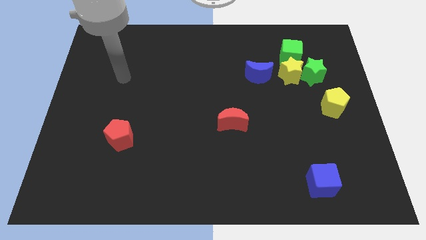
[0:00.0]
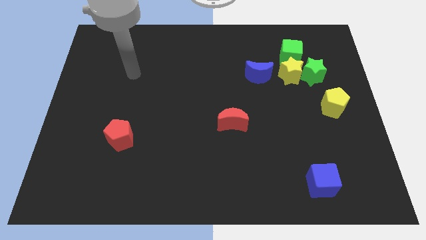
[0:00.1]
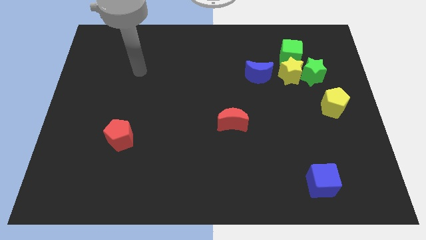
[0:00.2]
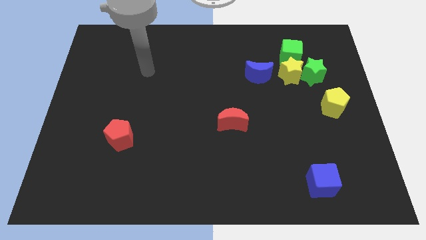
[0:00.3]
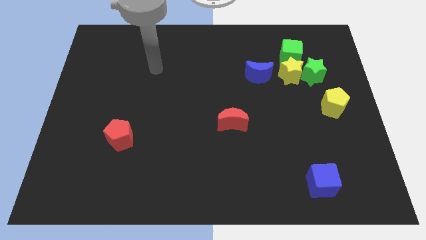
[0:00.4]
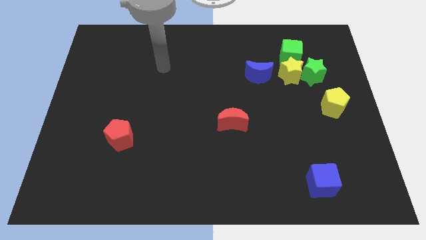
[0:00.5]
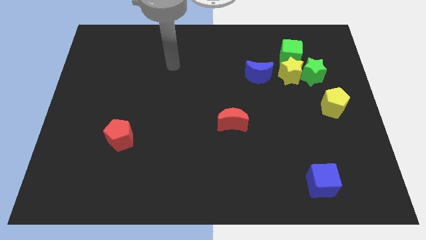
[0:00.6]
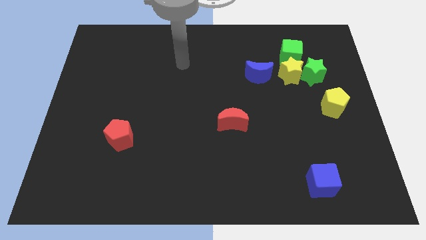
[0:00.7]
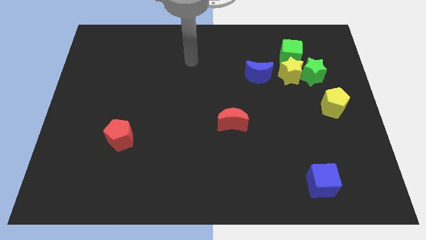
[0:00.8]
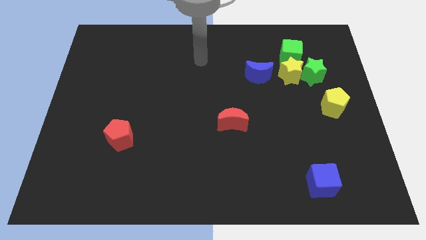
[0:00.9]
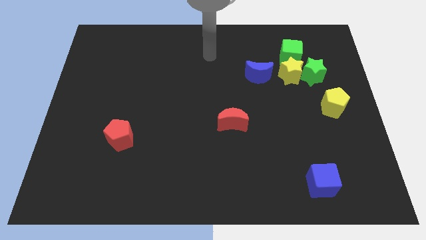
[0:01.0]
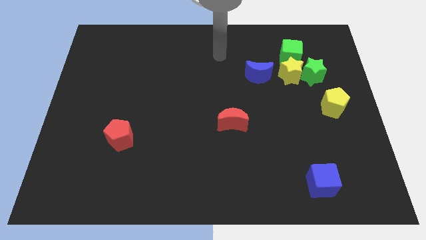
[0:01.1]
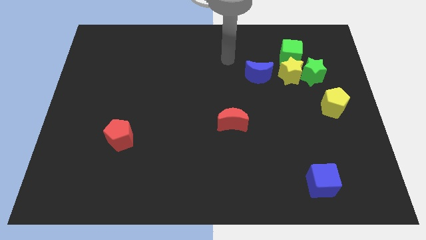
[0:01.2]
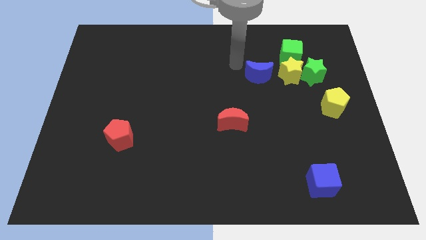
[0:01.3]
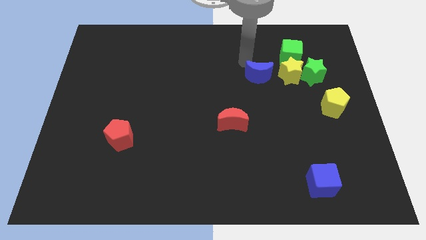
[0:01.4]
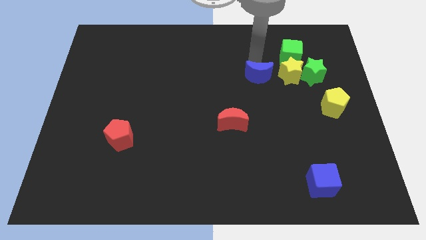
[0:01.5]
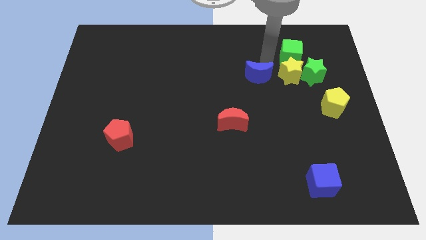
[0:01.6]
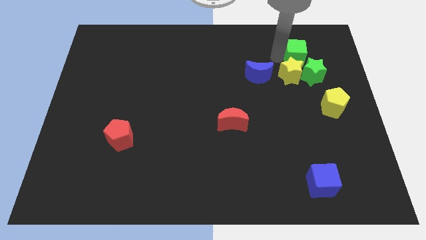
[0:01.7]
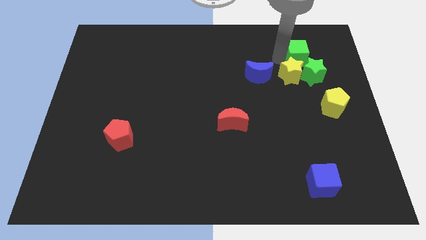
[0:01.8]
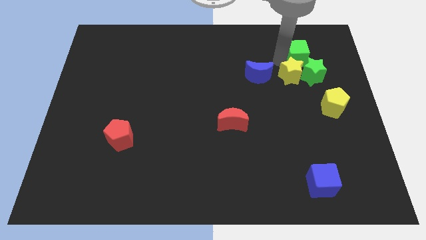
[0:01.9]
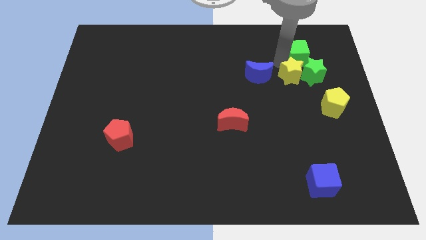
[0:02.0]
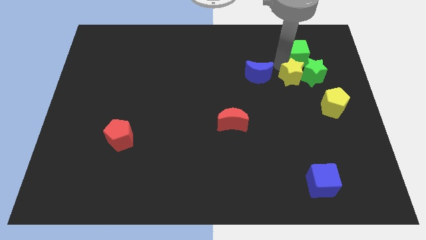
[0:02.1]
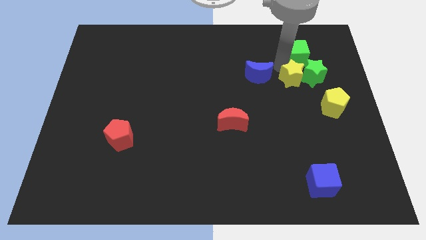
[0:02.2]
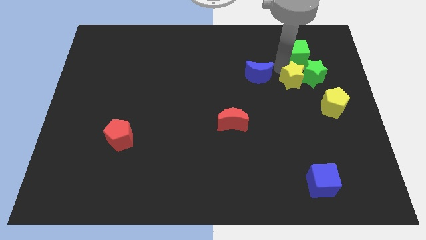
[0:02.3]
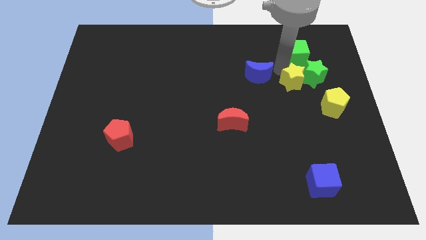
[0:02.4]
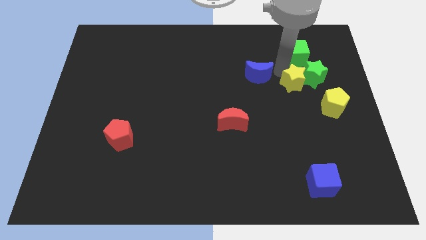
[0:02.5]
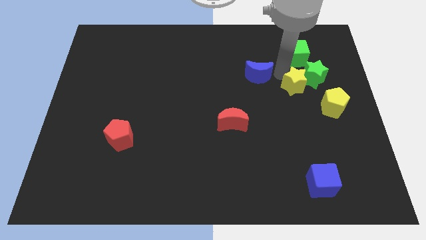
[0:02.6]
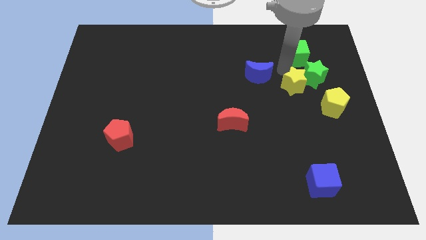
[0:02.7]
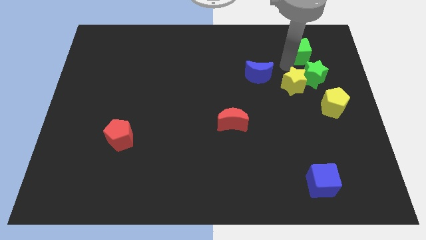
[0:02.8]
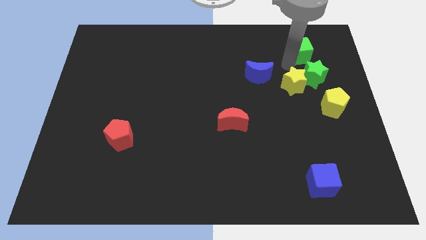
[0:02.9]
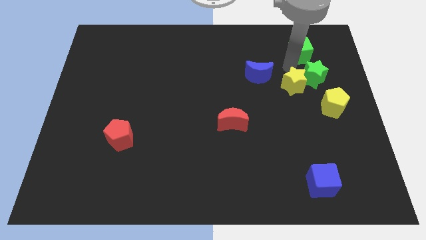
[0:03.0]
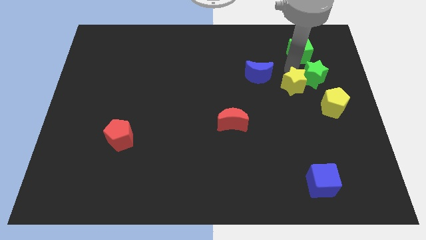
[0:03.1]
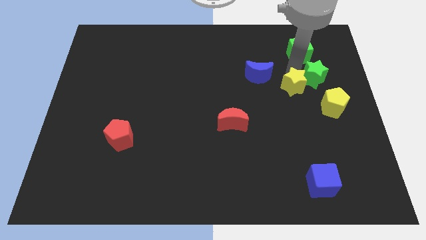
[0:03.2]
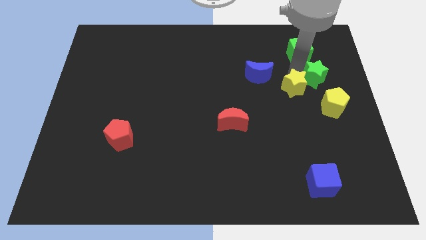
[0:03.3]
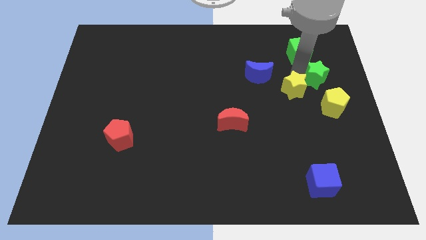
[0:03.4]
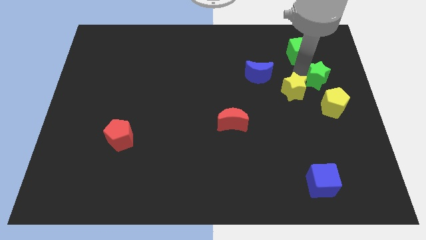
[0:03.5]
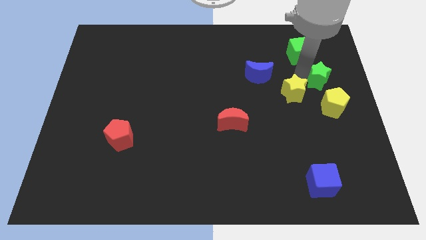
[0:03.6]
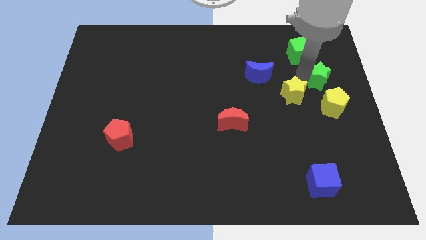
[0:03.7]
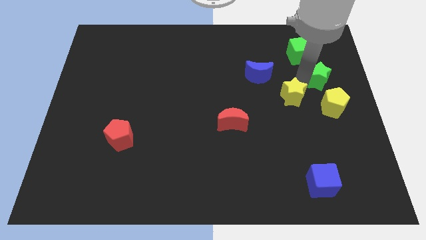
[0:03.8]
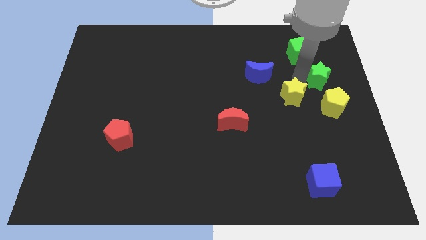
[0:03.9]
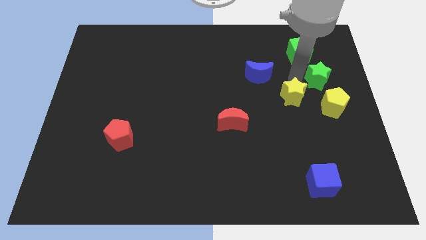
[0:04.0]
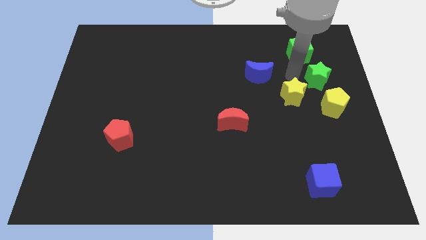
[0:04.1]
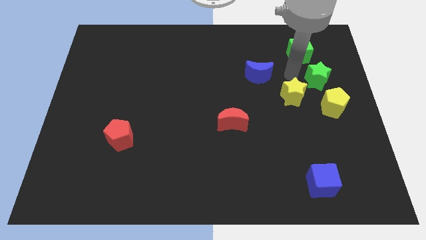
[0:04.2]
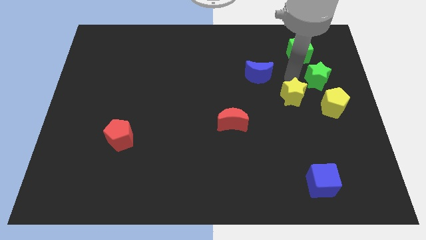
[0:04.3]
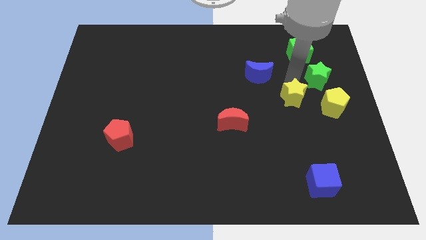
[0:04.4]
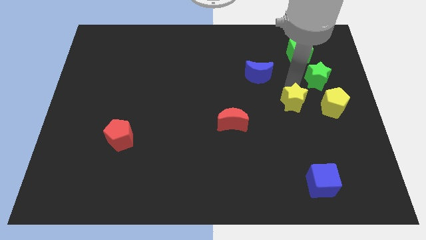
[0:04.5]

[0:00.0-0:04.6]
pull the yellow star apart from the group

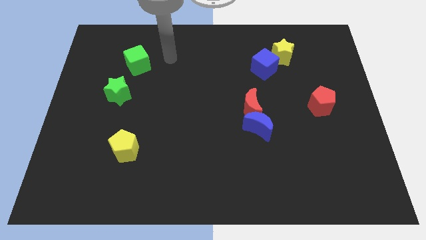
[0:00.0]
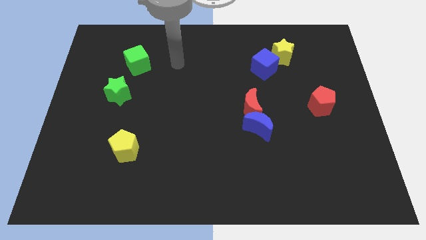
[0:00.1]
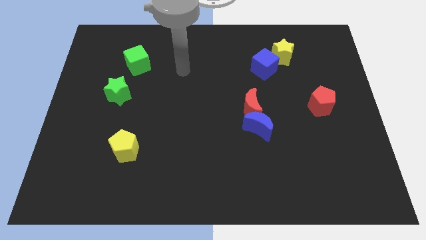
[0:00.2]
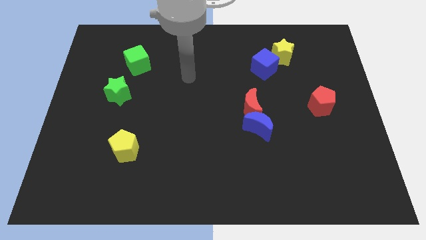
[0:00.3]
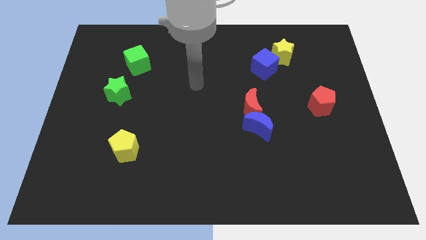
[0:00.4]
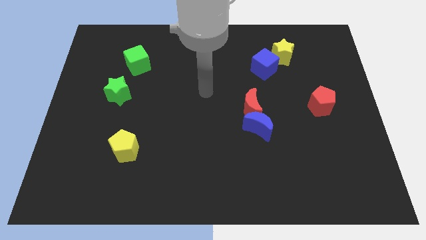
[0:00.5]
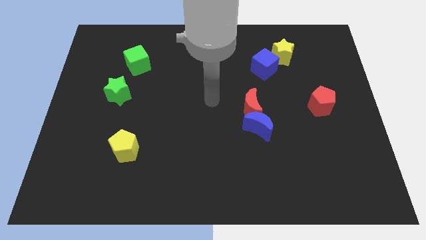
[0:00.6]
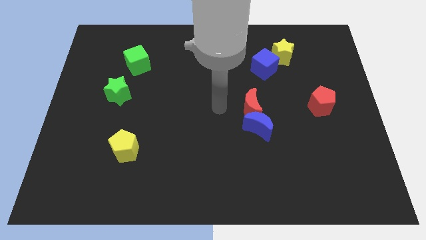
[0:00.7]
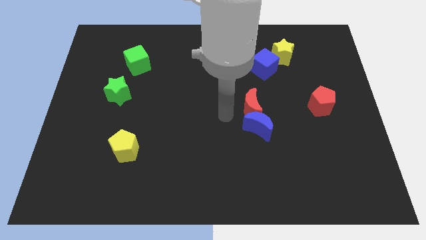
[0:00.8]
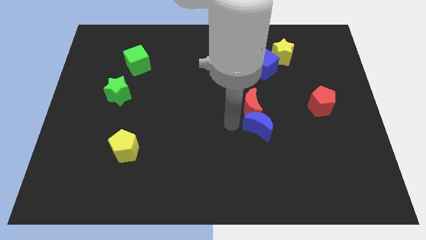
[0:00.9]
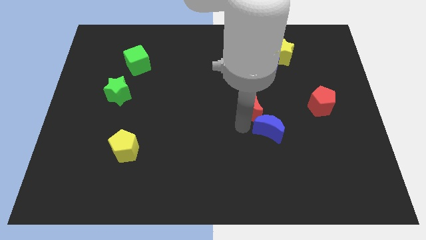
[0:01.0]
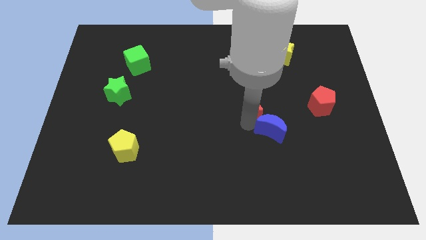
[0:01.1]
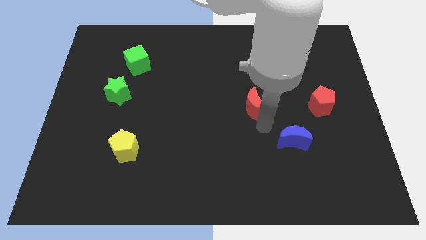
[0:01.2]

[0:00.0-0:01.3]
pull the red moon apart from the blue moon

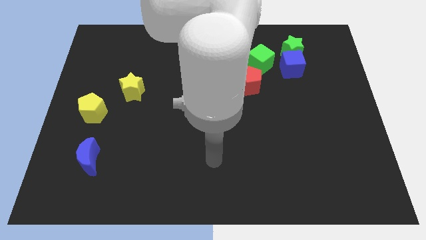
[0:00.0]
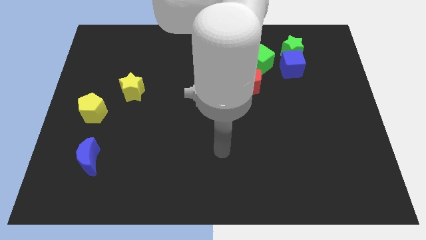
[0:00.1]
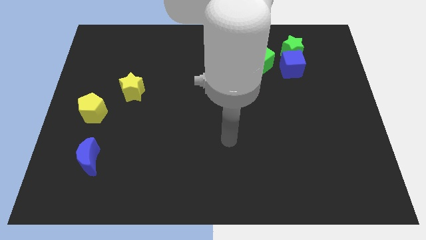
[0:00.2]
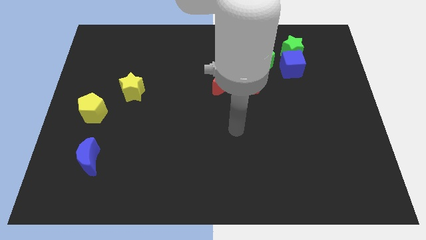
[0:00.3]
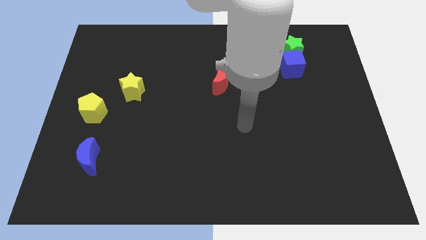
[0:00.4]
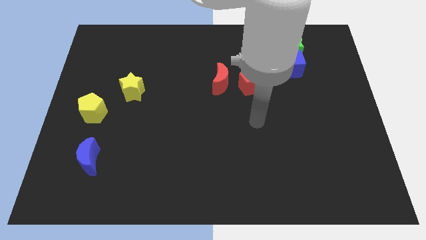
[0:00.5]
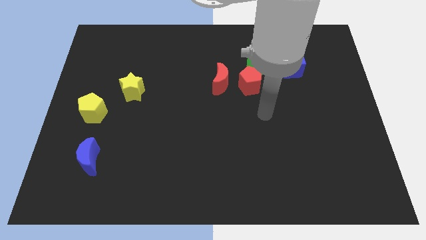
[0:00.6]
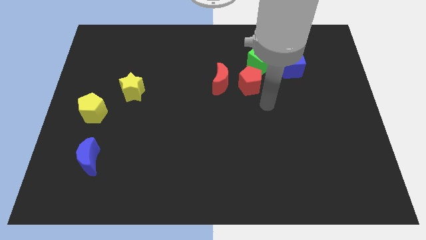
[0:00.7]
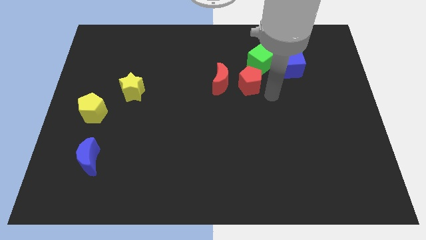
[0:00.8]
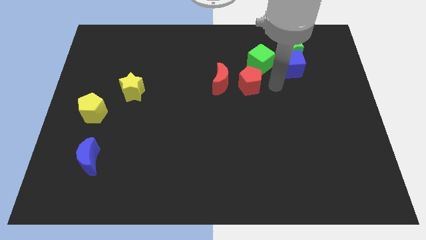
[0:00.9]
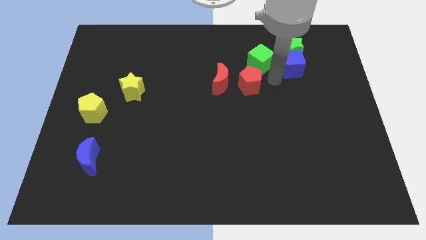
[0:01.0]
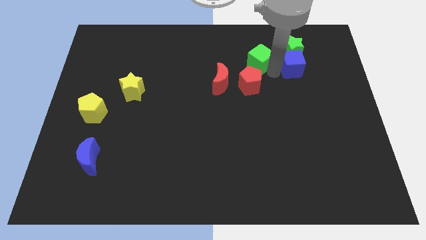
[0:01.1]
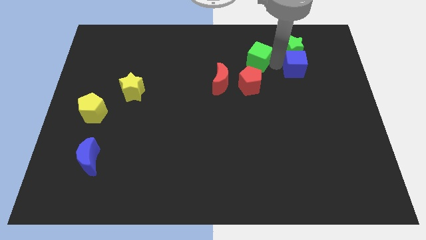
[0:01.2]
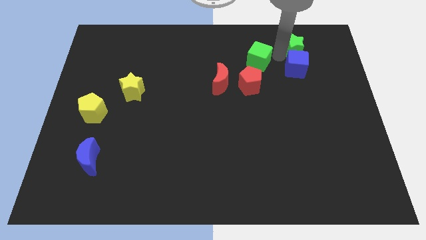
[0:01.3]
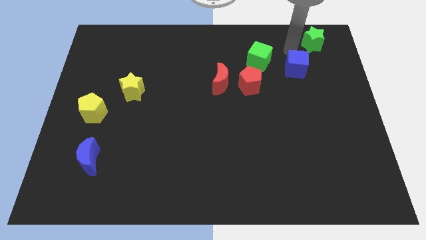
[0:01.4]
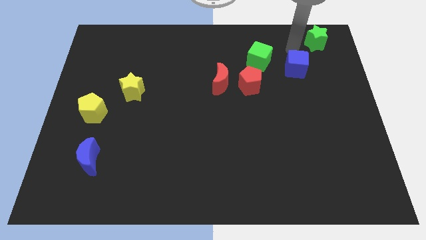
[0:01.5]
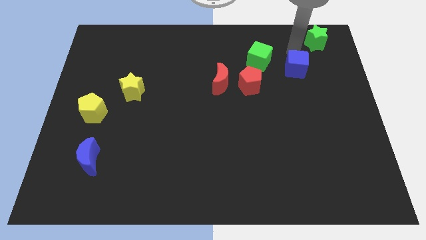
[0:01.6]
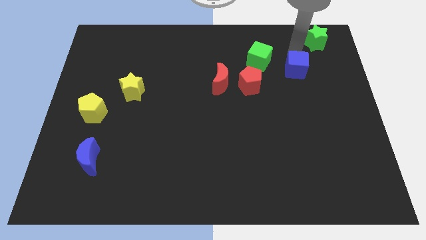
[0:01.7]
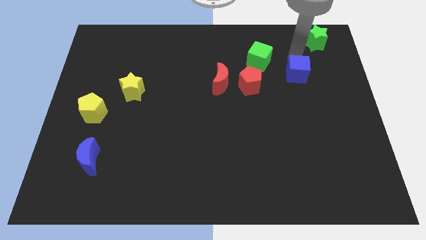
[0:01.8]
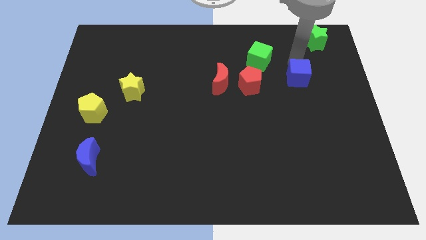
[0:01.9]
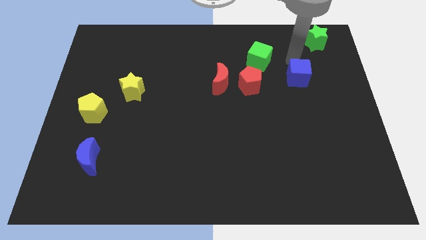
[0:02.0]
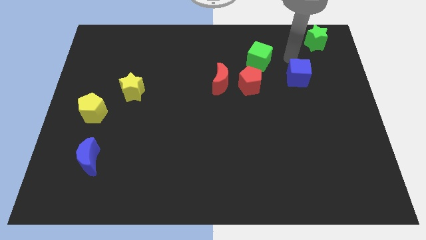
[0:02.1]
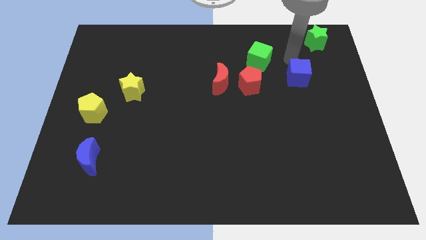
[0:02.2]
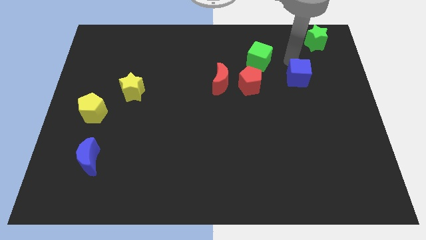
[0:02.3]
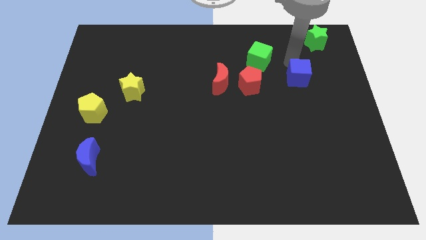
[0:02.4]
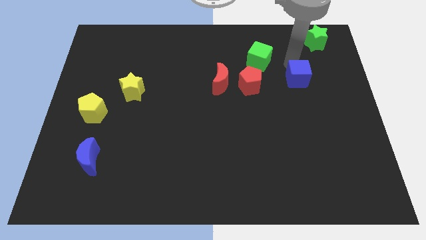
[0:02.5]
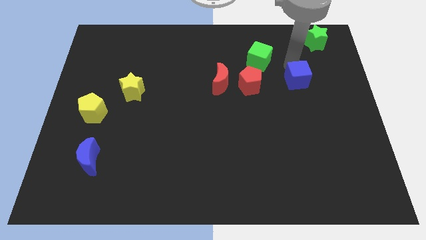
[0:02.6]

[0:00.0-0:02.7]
move the blue cube away from the green star and green cube

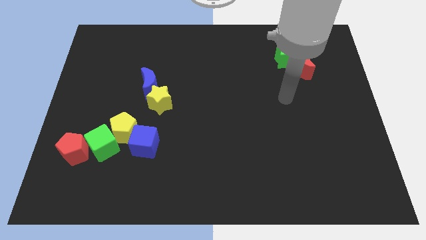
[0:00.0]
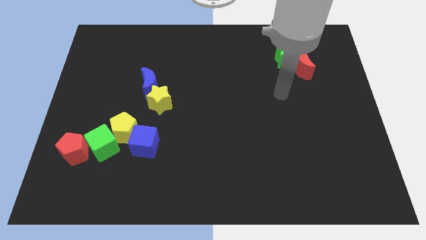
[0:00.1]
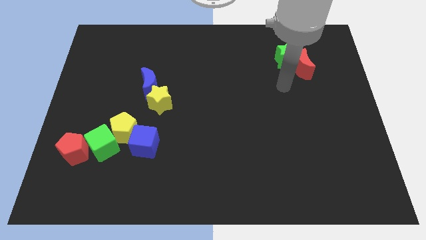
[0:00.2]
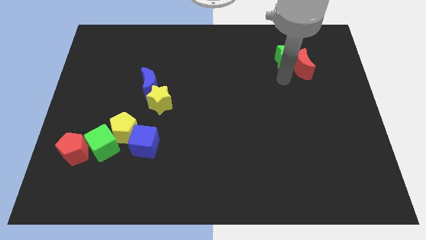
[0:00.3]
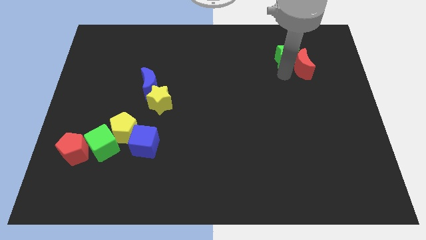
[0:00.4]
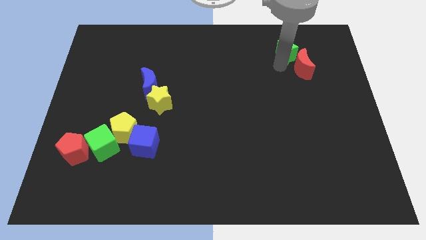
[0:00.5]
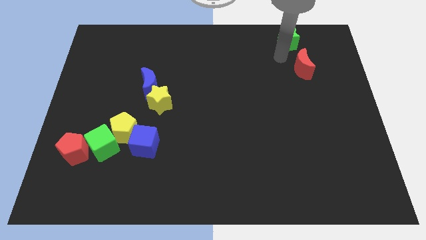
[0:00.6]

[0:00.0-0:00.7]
pull the red moon apart from the green star
